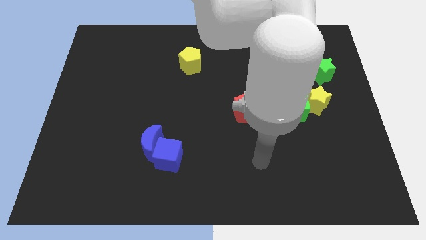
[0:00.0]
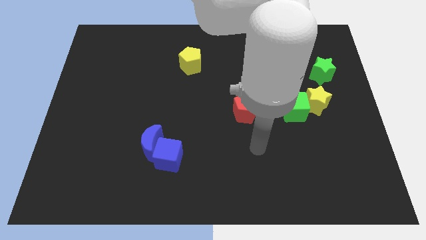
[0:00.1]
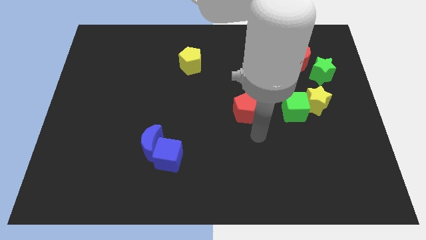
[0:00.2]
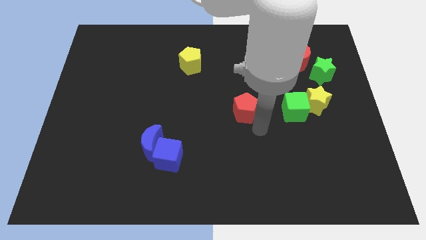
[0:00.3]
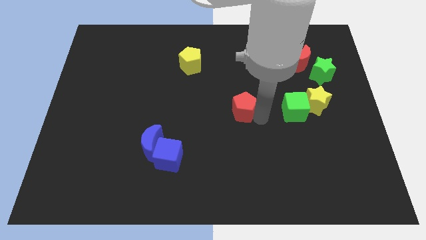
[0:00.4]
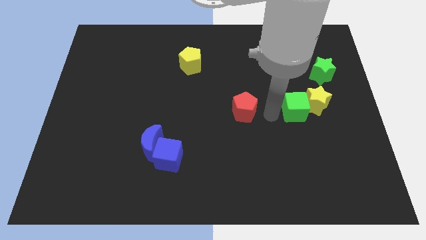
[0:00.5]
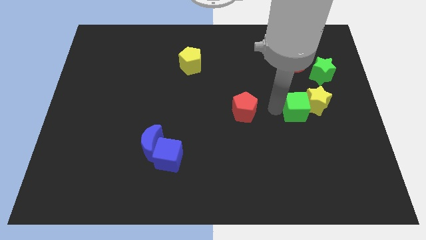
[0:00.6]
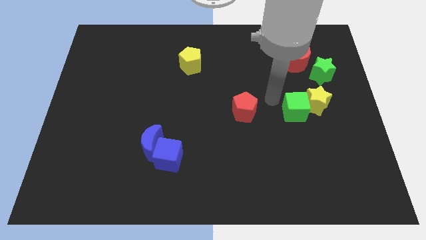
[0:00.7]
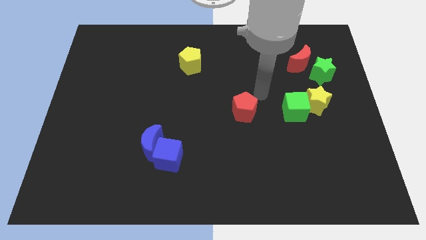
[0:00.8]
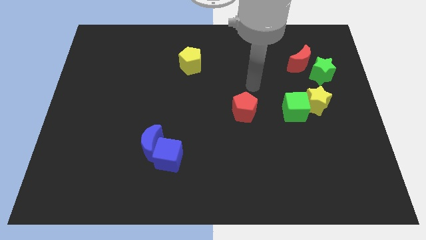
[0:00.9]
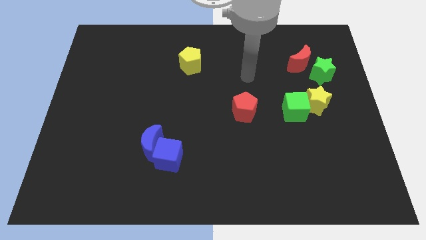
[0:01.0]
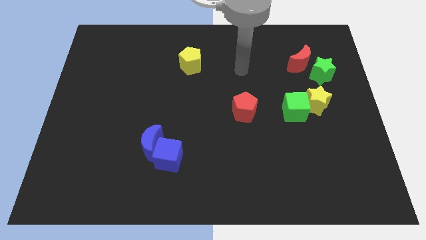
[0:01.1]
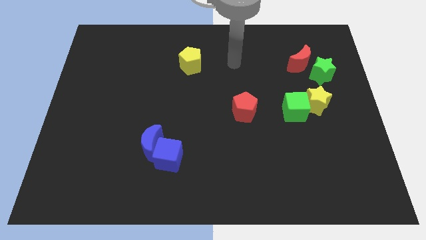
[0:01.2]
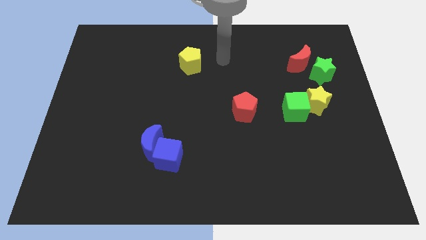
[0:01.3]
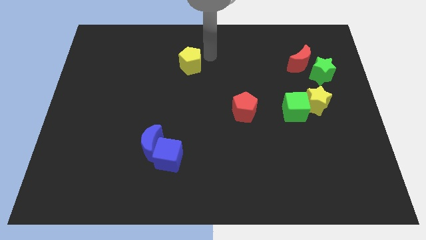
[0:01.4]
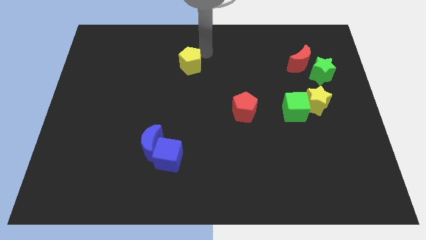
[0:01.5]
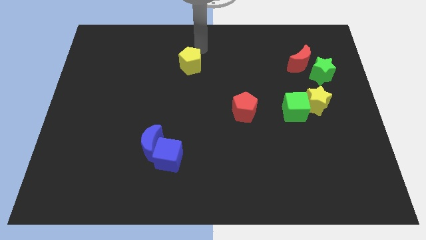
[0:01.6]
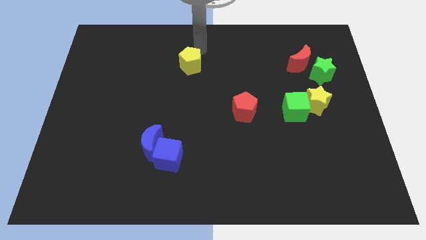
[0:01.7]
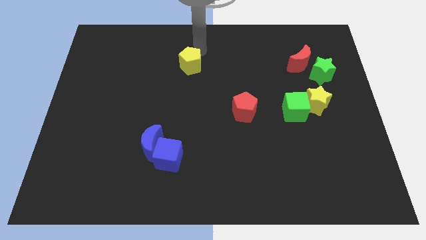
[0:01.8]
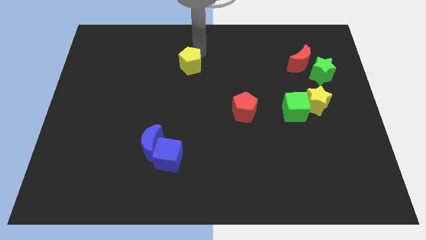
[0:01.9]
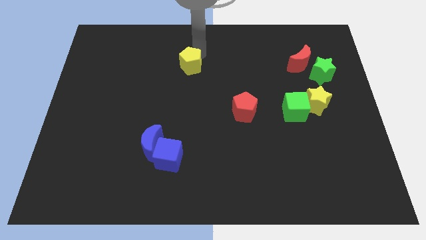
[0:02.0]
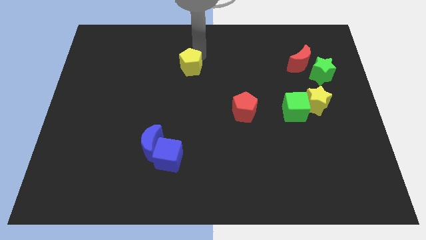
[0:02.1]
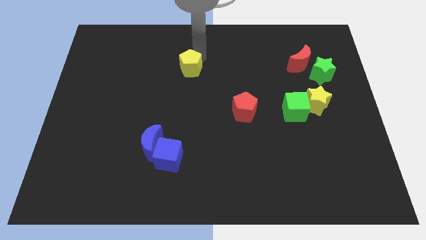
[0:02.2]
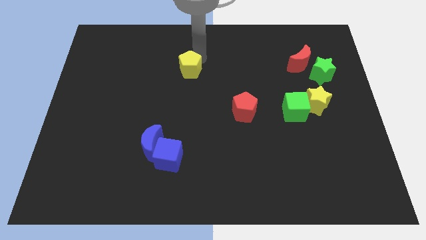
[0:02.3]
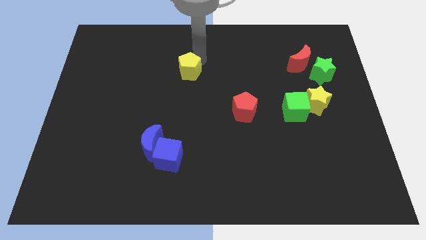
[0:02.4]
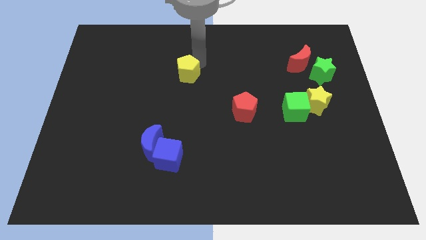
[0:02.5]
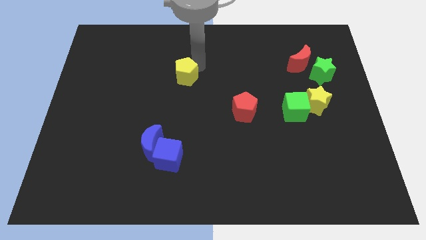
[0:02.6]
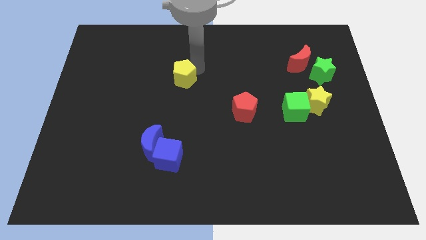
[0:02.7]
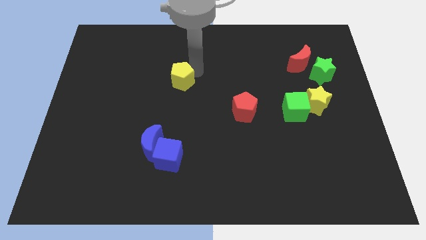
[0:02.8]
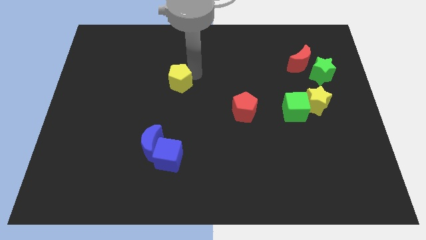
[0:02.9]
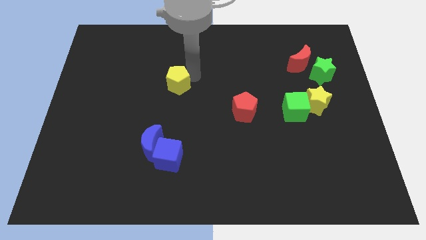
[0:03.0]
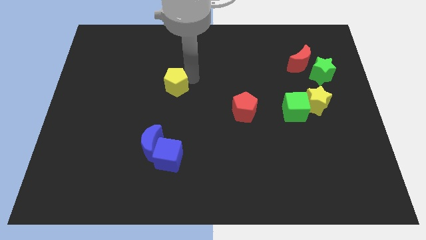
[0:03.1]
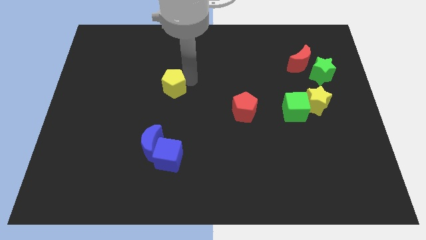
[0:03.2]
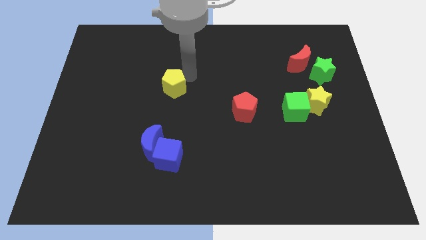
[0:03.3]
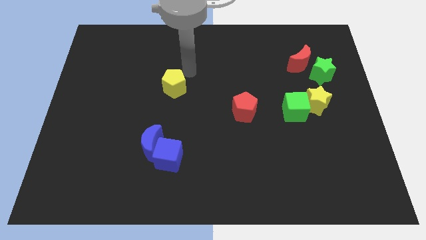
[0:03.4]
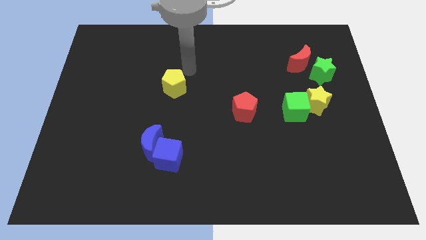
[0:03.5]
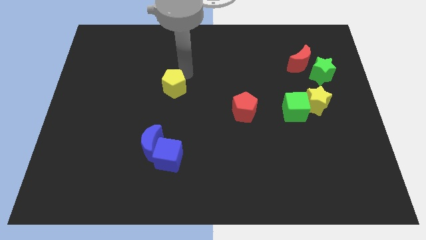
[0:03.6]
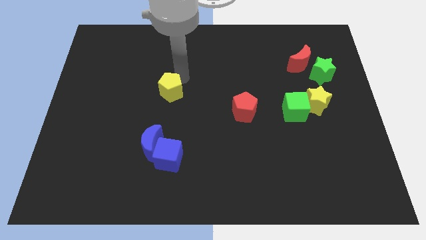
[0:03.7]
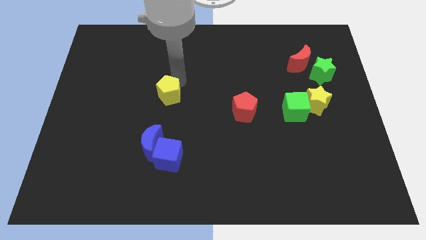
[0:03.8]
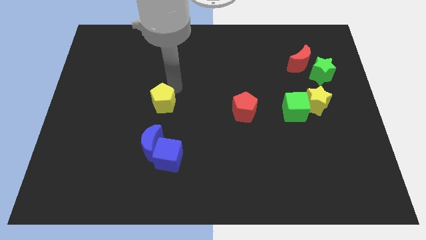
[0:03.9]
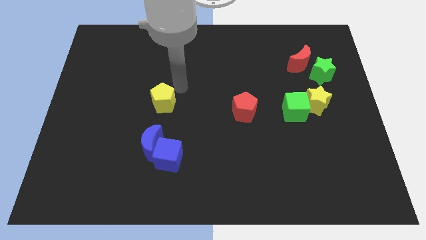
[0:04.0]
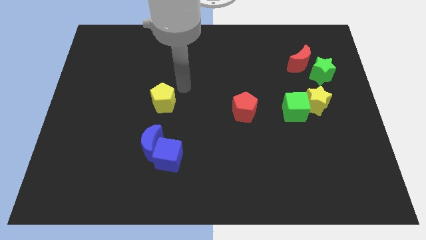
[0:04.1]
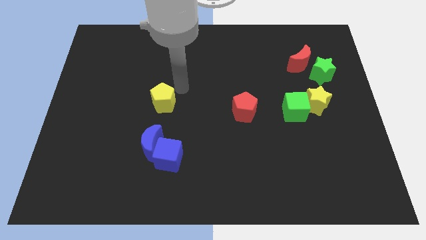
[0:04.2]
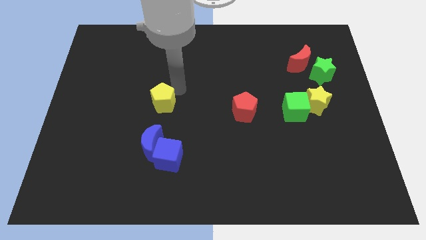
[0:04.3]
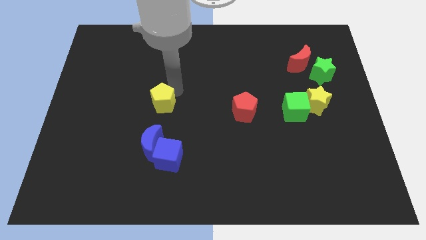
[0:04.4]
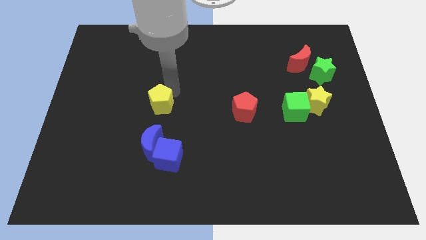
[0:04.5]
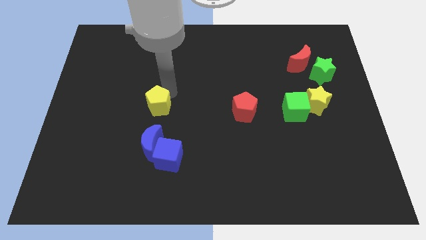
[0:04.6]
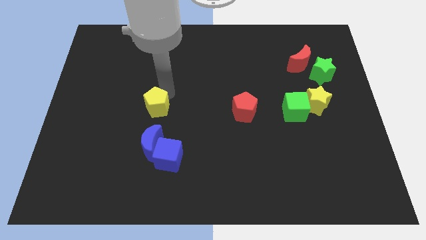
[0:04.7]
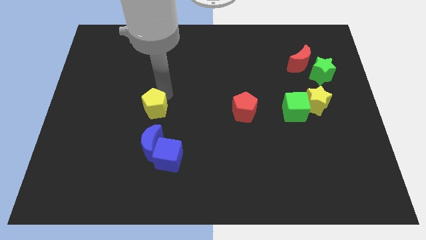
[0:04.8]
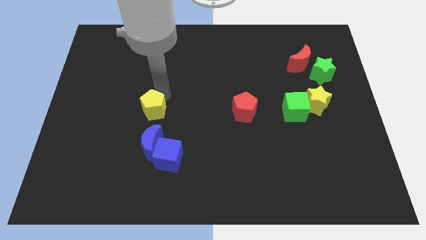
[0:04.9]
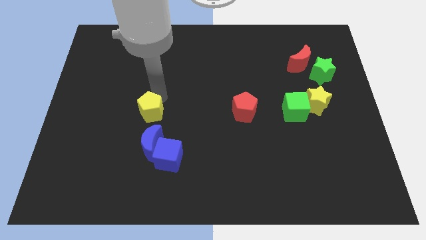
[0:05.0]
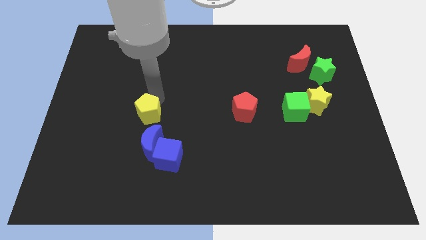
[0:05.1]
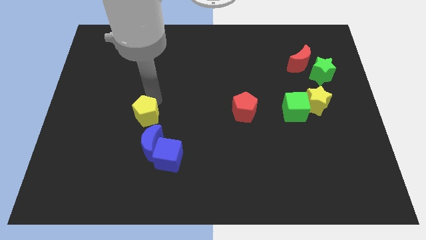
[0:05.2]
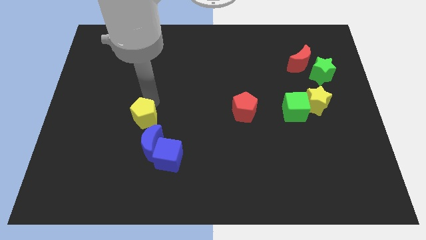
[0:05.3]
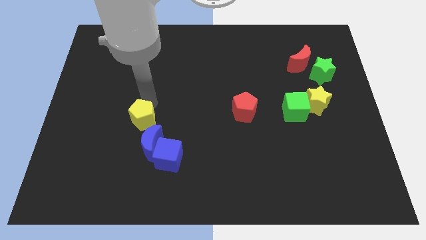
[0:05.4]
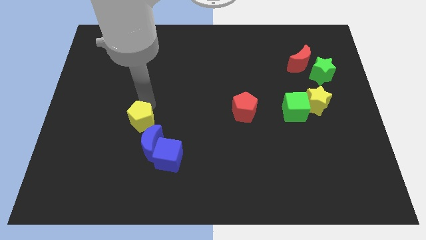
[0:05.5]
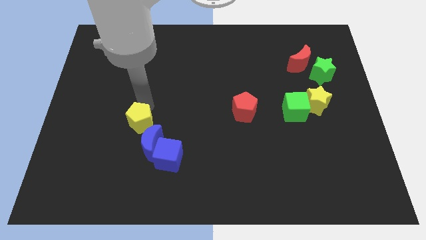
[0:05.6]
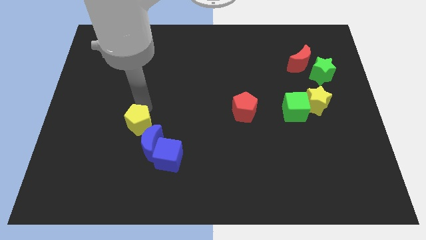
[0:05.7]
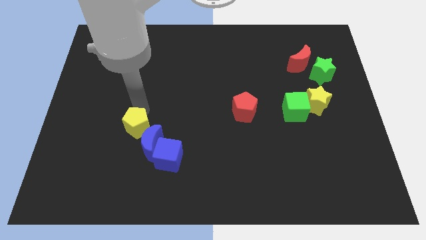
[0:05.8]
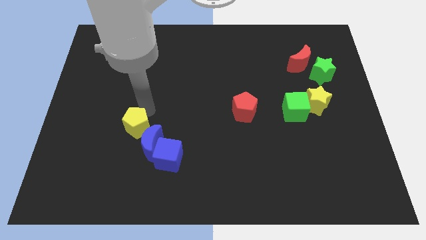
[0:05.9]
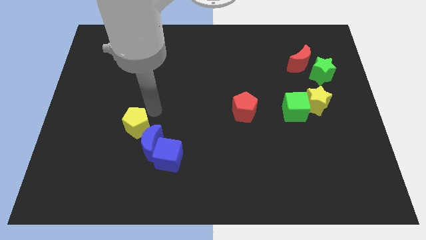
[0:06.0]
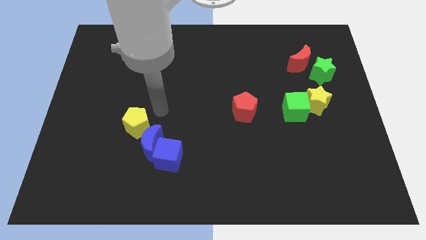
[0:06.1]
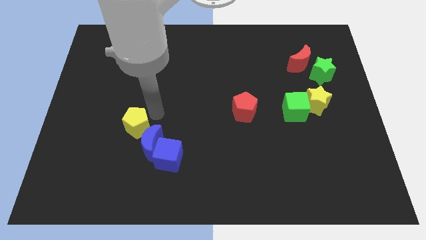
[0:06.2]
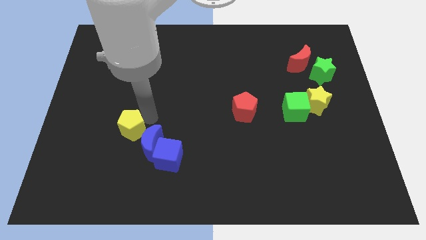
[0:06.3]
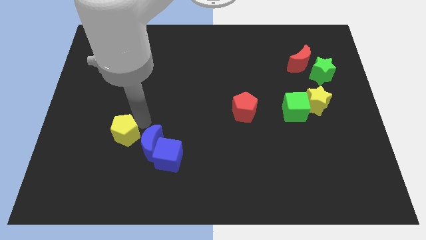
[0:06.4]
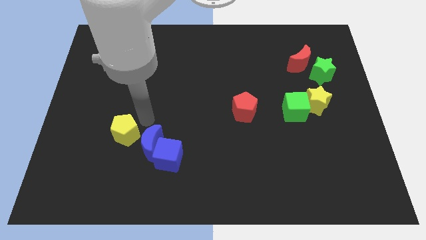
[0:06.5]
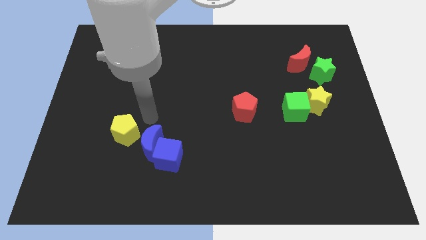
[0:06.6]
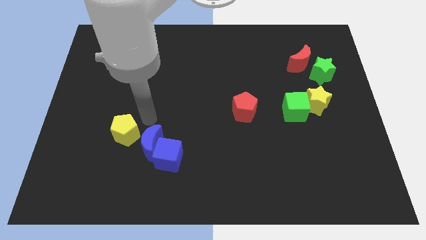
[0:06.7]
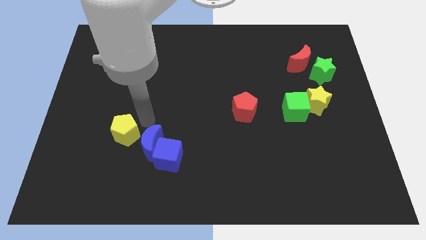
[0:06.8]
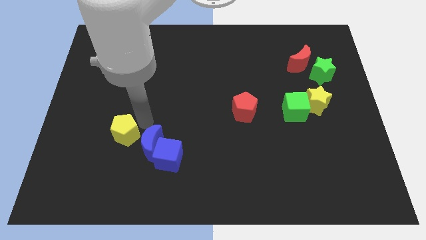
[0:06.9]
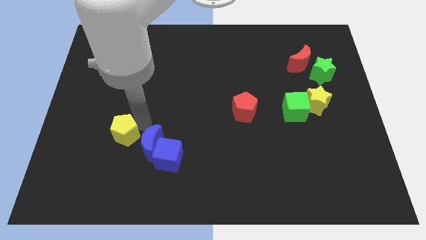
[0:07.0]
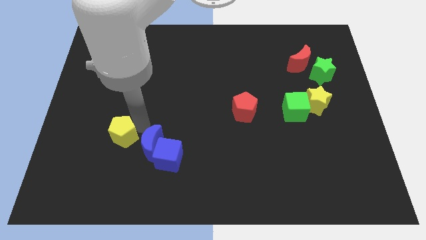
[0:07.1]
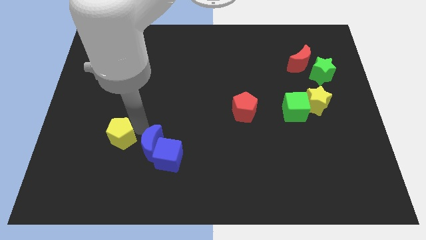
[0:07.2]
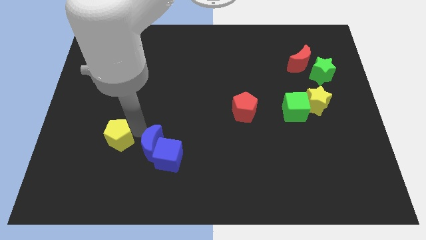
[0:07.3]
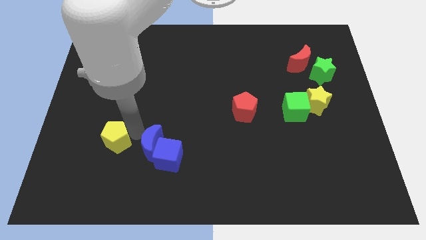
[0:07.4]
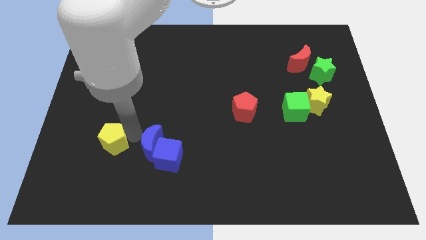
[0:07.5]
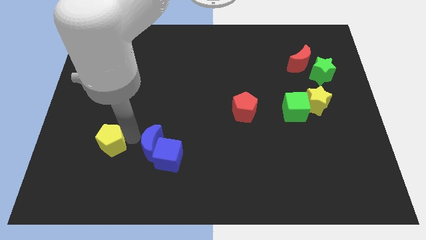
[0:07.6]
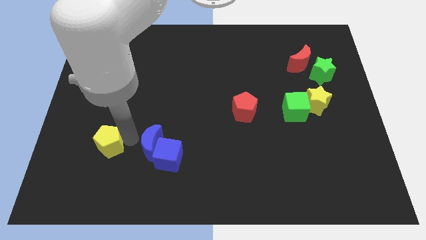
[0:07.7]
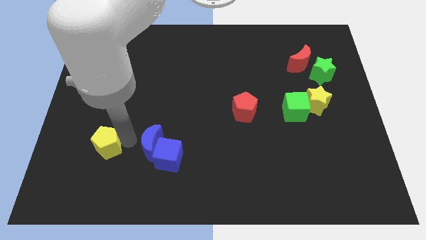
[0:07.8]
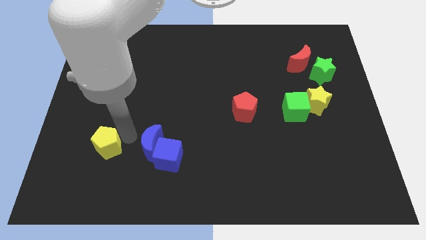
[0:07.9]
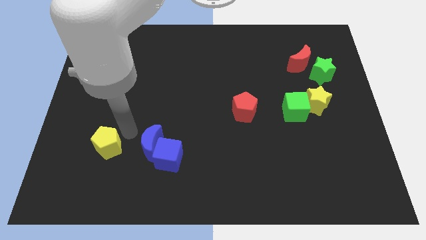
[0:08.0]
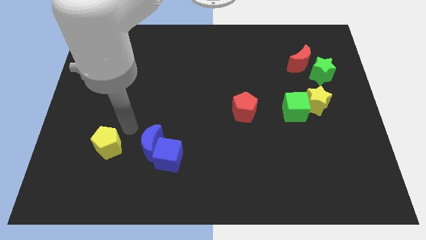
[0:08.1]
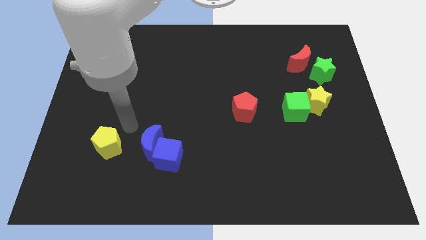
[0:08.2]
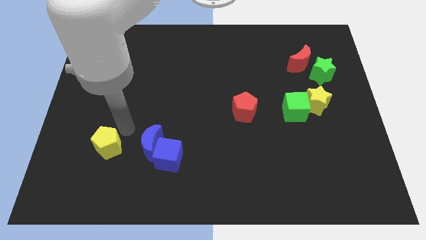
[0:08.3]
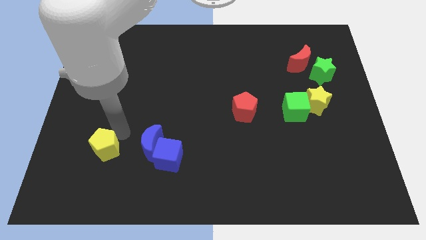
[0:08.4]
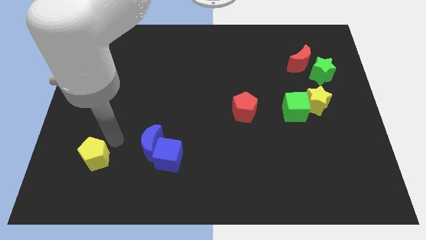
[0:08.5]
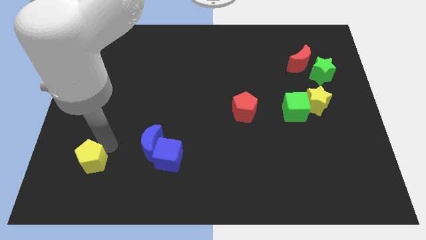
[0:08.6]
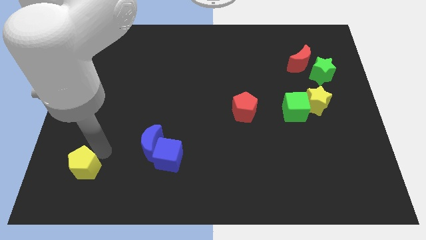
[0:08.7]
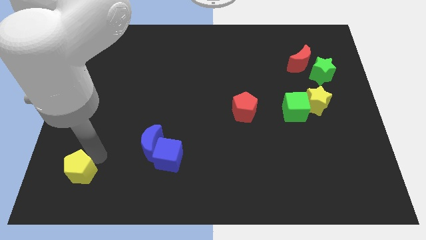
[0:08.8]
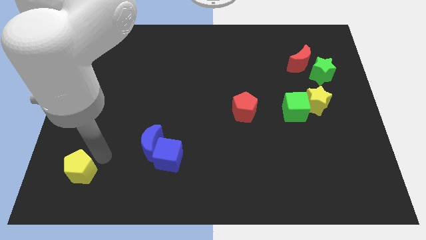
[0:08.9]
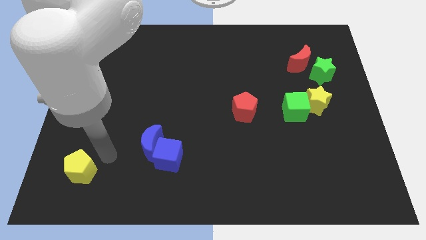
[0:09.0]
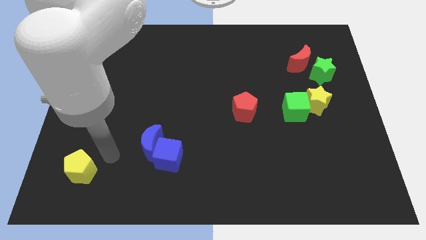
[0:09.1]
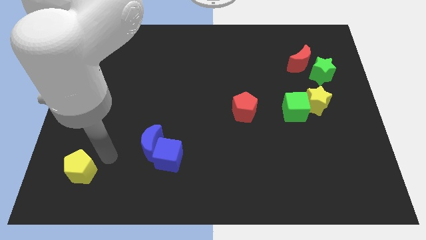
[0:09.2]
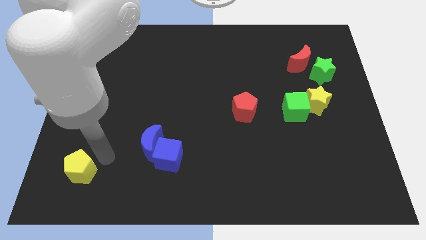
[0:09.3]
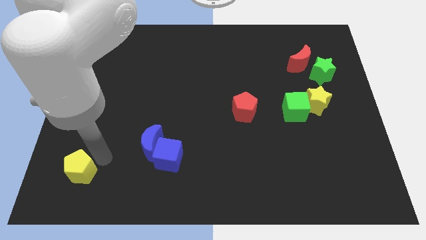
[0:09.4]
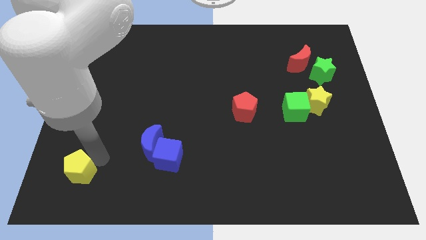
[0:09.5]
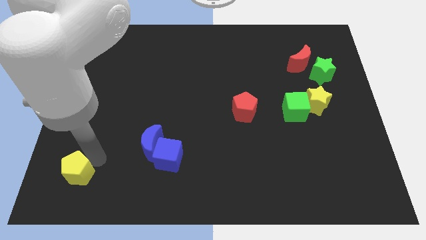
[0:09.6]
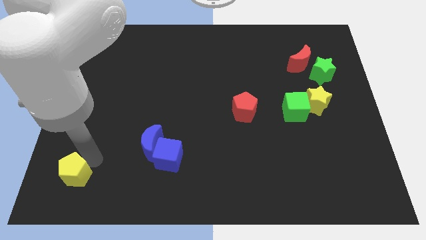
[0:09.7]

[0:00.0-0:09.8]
move the yellow pentagon to the lower left corner
